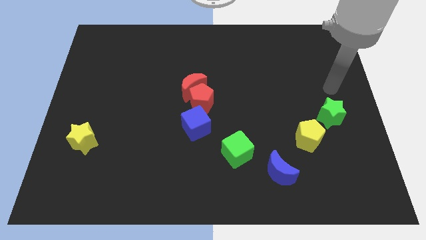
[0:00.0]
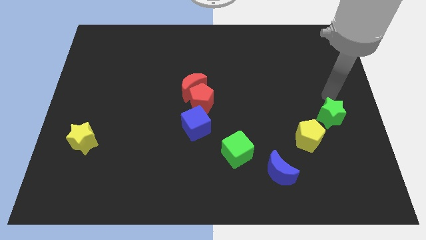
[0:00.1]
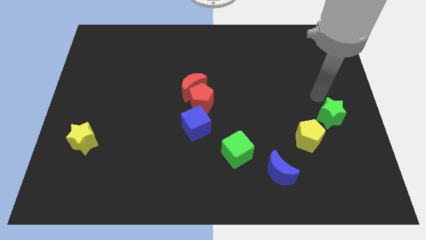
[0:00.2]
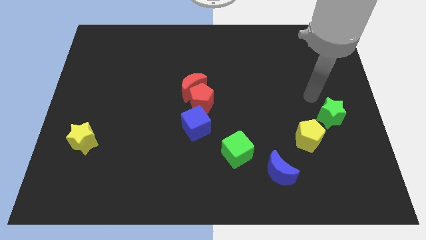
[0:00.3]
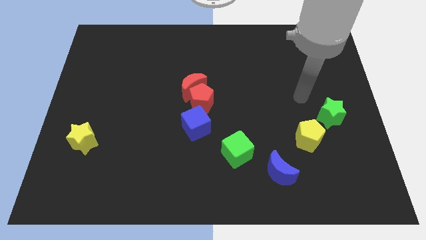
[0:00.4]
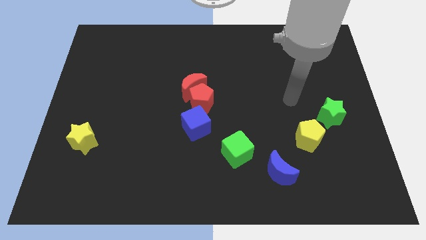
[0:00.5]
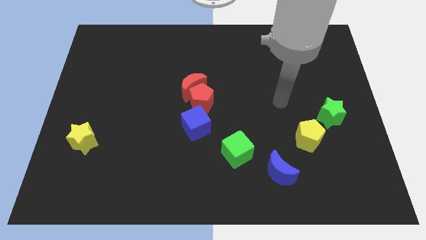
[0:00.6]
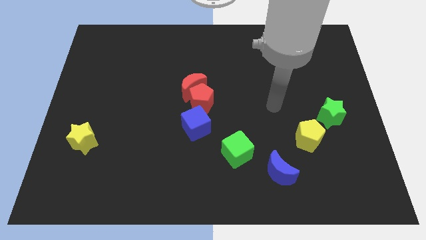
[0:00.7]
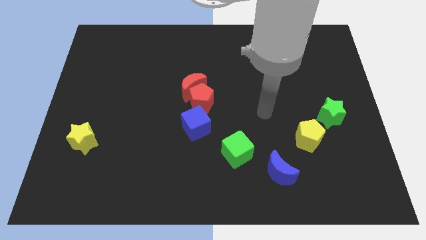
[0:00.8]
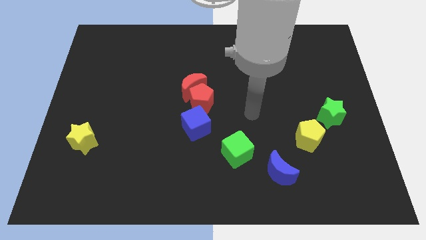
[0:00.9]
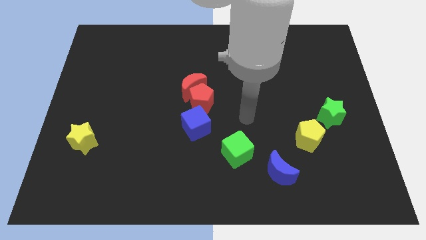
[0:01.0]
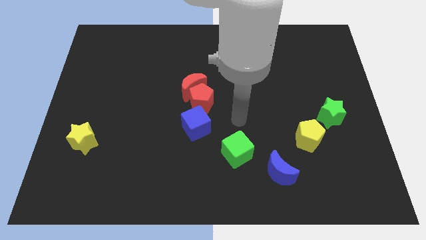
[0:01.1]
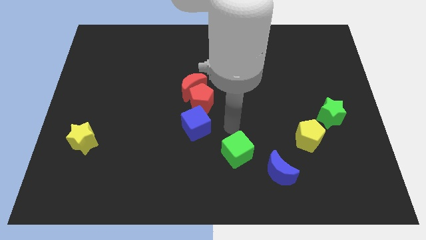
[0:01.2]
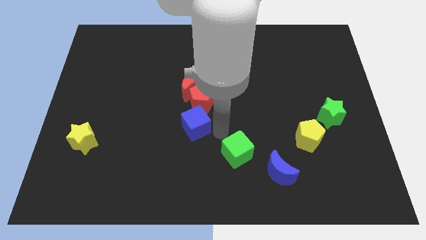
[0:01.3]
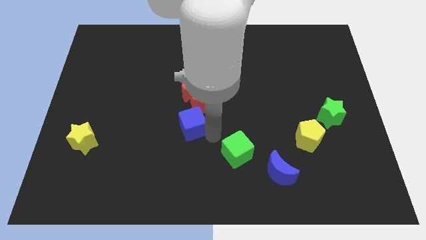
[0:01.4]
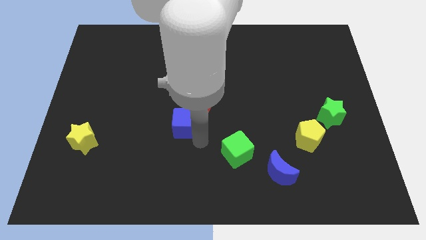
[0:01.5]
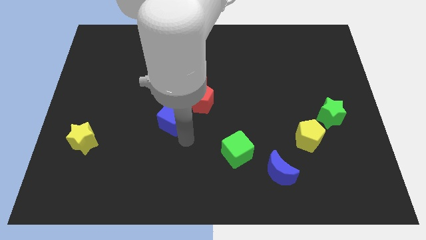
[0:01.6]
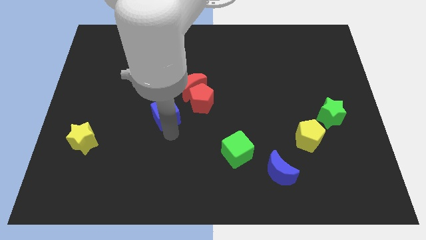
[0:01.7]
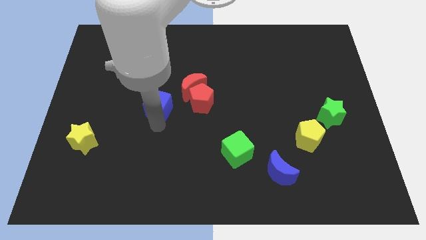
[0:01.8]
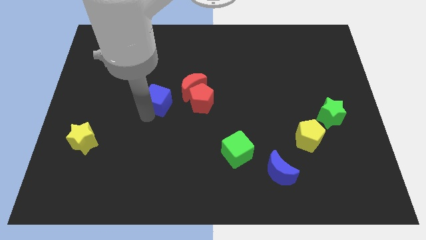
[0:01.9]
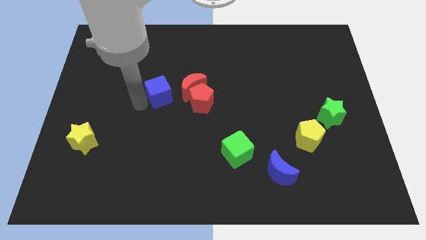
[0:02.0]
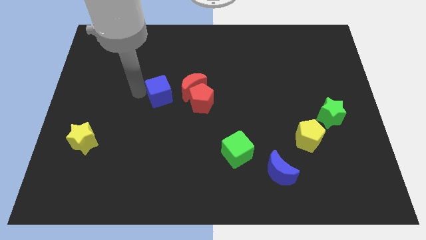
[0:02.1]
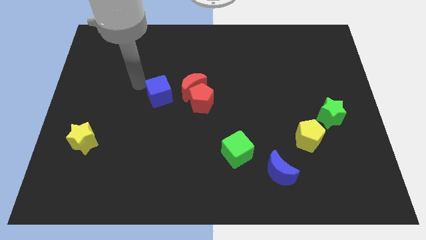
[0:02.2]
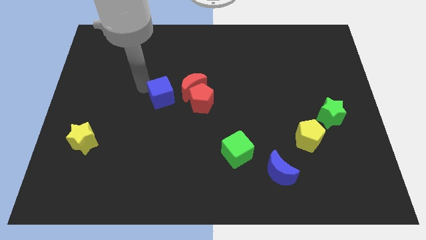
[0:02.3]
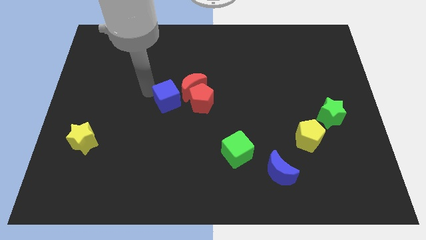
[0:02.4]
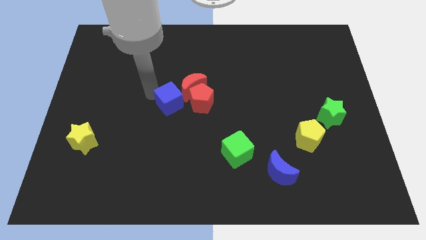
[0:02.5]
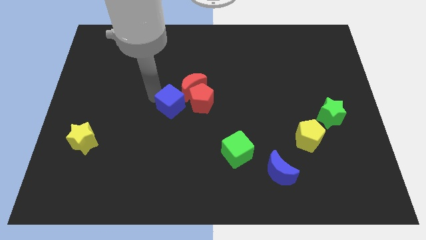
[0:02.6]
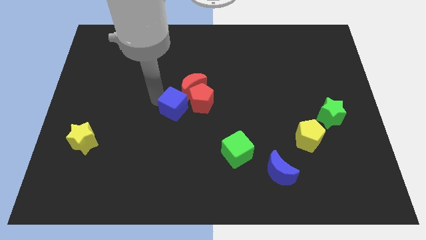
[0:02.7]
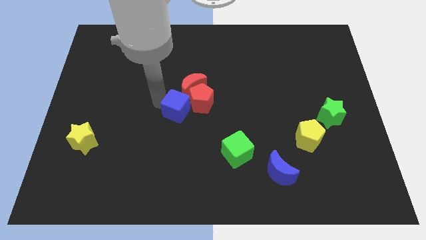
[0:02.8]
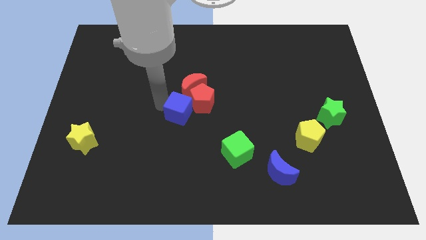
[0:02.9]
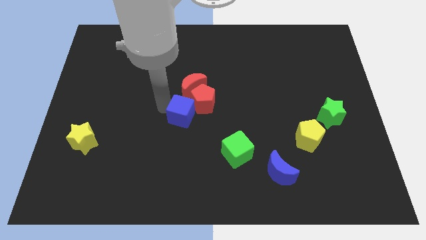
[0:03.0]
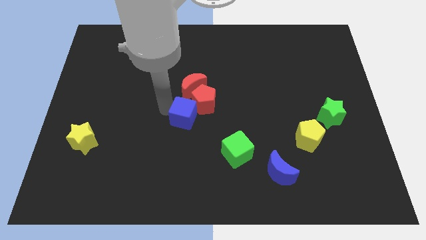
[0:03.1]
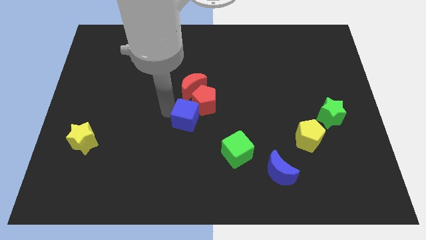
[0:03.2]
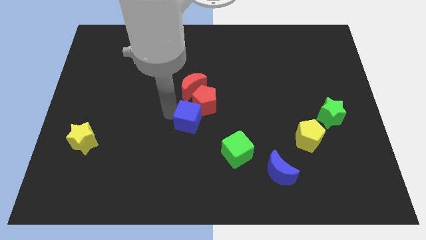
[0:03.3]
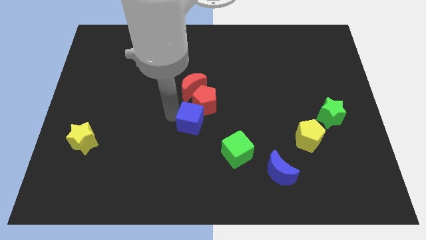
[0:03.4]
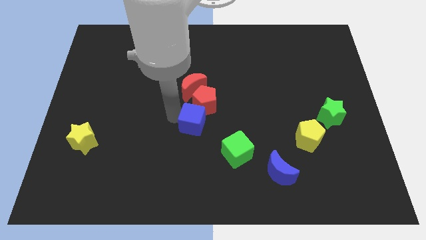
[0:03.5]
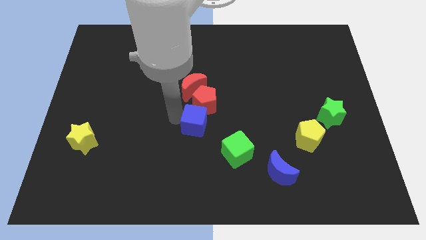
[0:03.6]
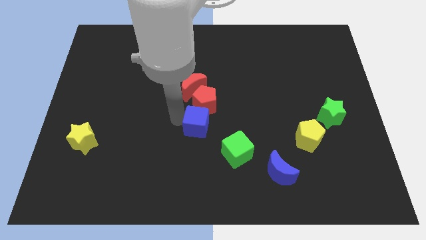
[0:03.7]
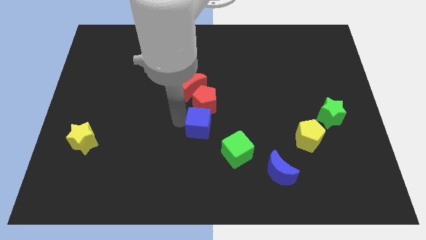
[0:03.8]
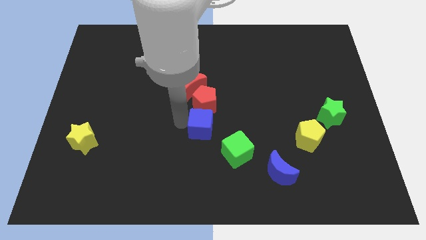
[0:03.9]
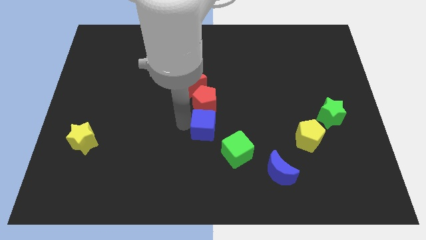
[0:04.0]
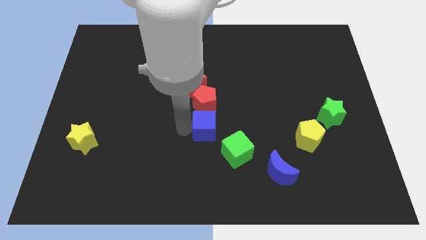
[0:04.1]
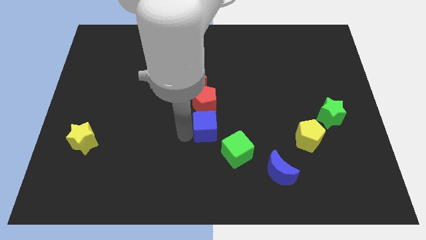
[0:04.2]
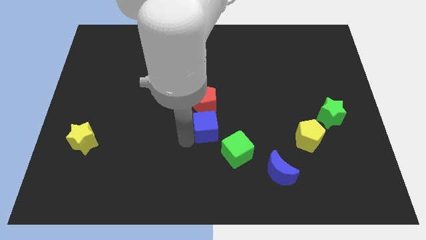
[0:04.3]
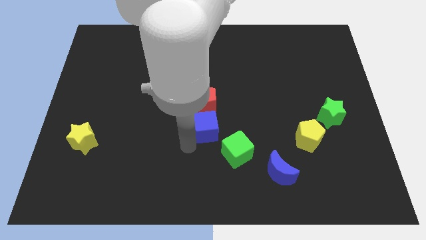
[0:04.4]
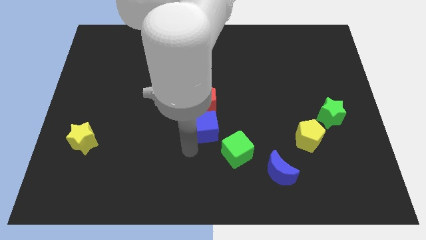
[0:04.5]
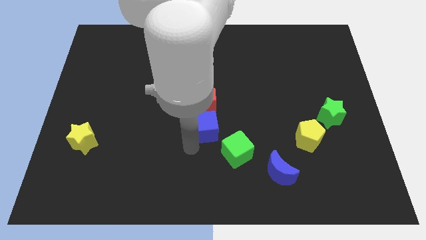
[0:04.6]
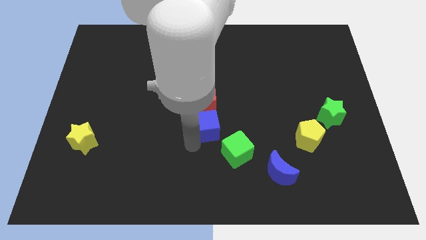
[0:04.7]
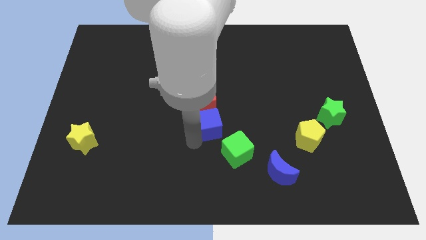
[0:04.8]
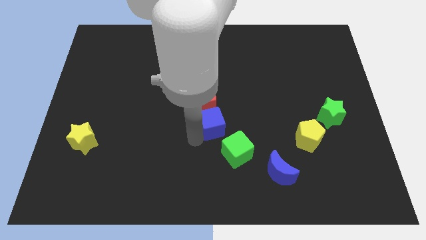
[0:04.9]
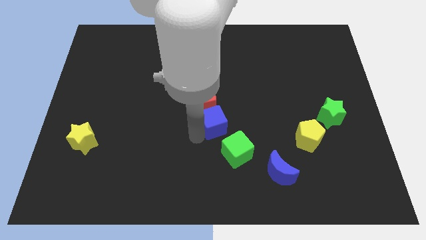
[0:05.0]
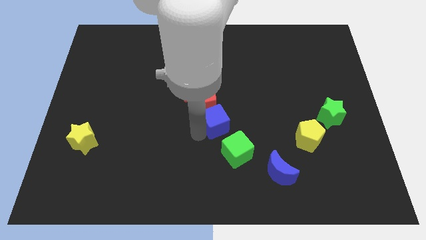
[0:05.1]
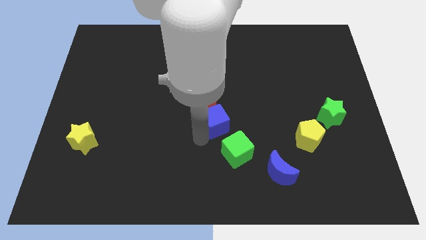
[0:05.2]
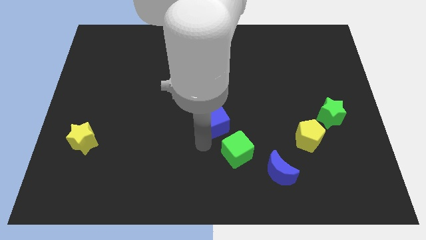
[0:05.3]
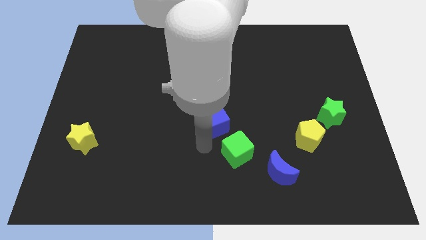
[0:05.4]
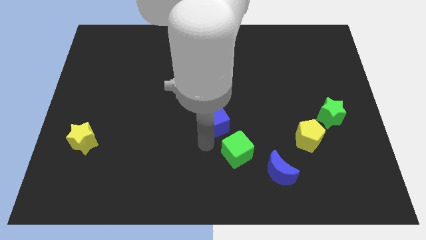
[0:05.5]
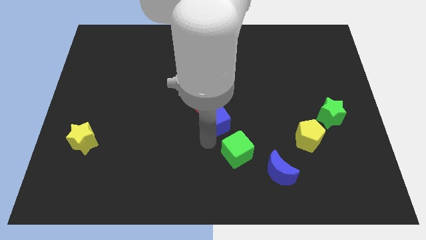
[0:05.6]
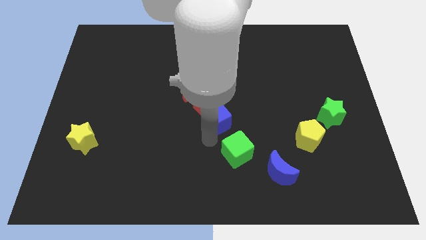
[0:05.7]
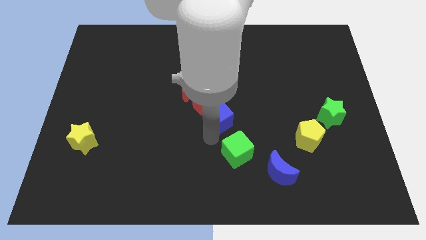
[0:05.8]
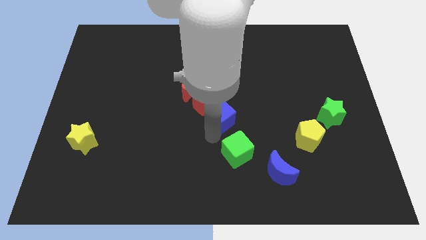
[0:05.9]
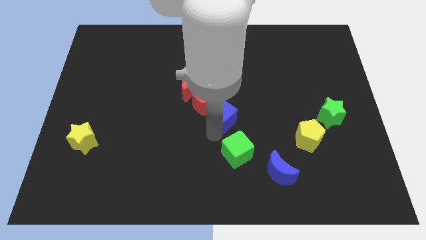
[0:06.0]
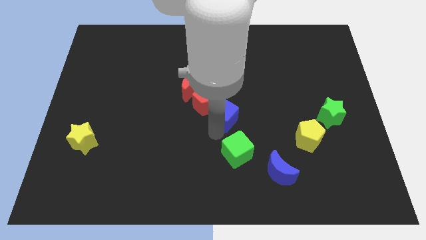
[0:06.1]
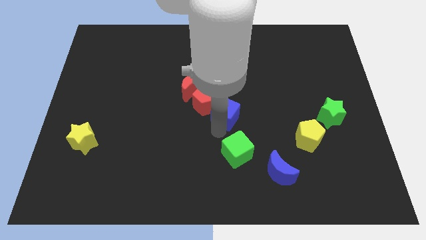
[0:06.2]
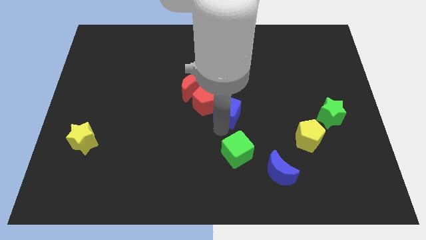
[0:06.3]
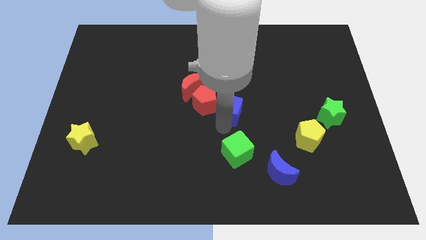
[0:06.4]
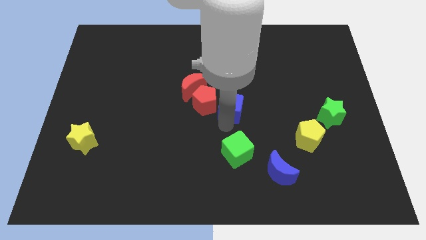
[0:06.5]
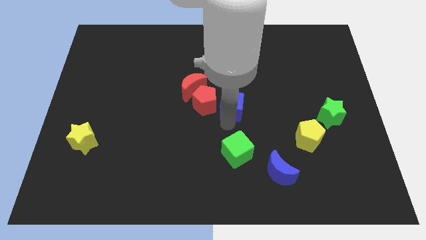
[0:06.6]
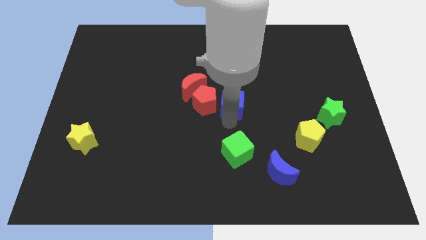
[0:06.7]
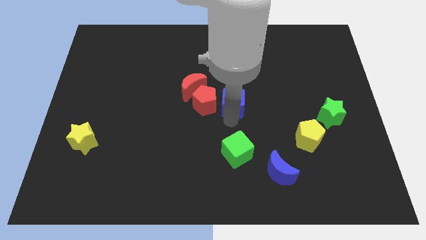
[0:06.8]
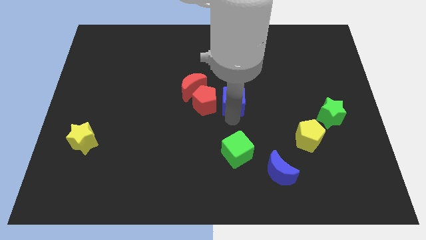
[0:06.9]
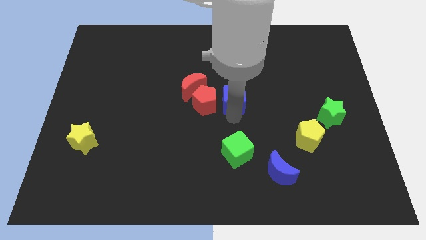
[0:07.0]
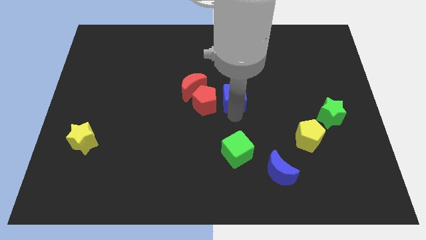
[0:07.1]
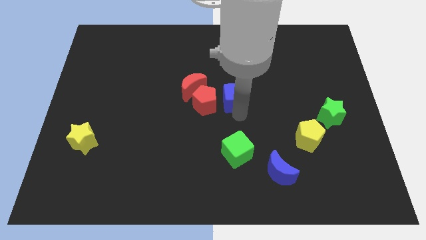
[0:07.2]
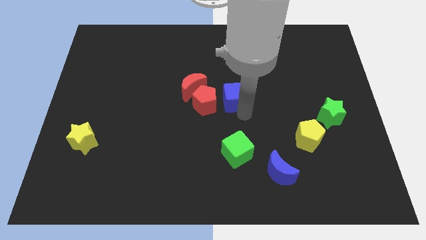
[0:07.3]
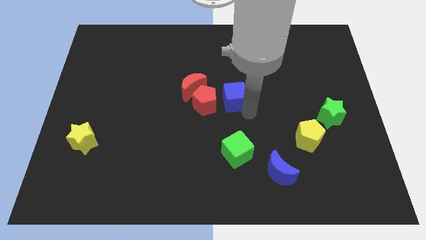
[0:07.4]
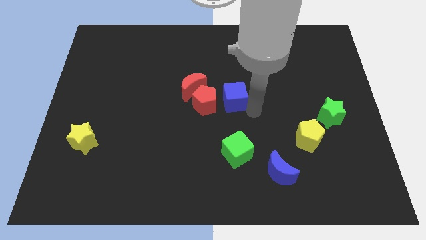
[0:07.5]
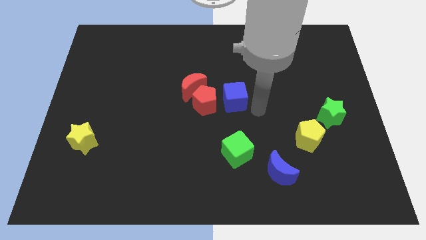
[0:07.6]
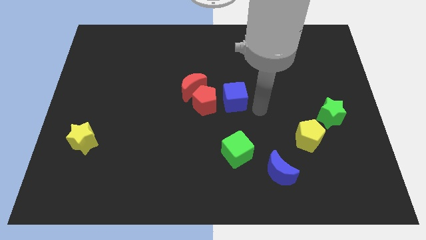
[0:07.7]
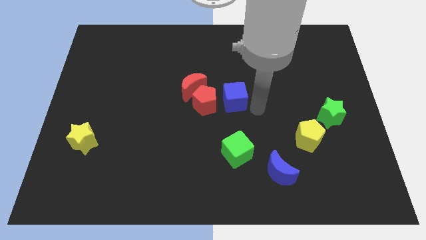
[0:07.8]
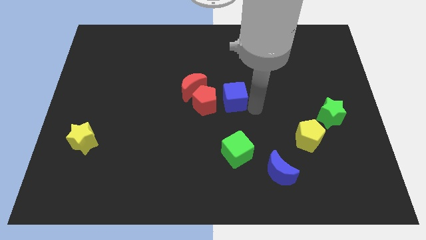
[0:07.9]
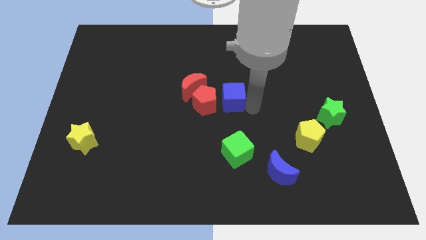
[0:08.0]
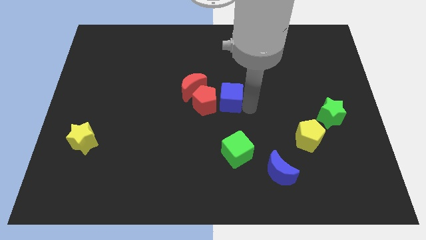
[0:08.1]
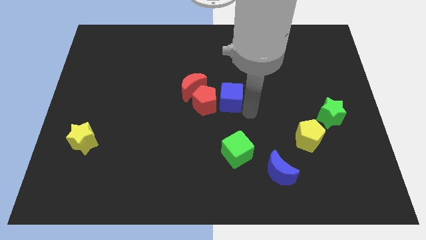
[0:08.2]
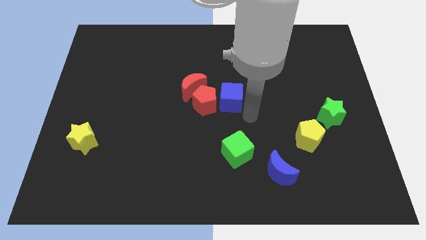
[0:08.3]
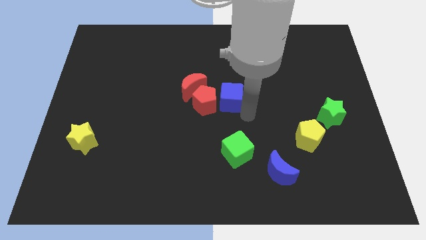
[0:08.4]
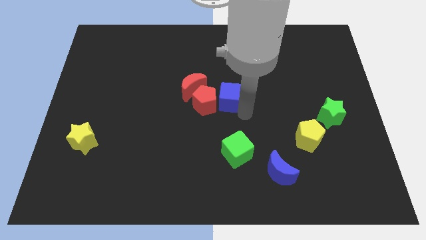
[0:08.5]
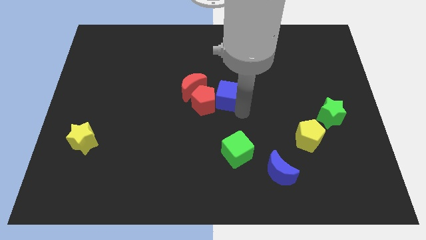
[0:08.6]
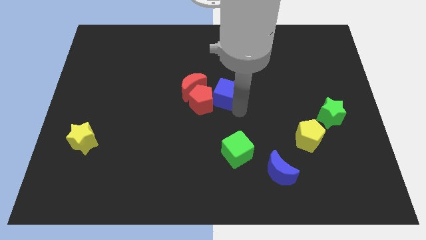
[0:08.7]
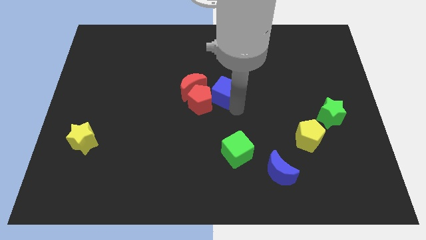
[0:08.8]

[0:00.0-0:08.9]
slightly slide the blue cube upwards
